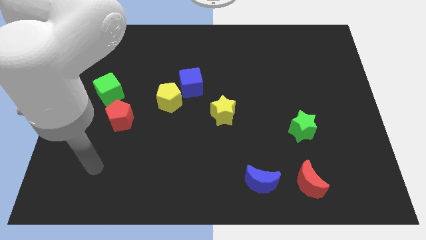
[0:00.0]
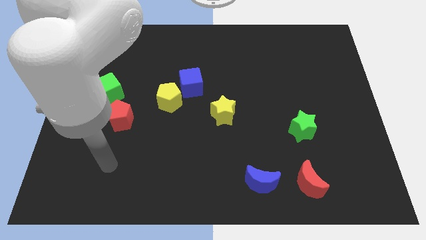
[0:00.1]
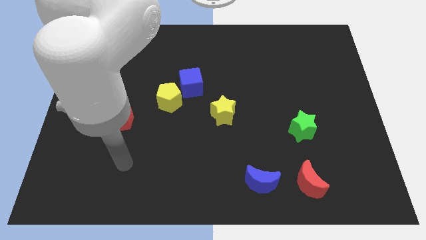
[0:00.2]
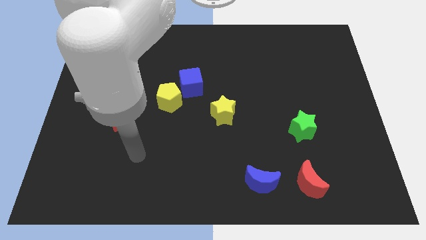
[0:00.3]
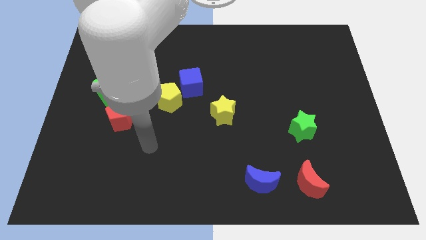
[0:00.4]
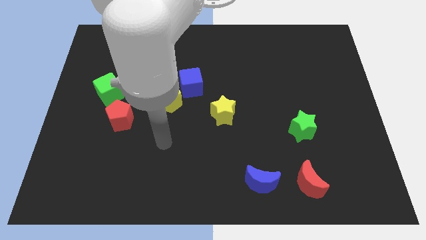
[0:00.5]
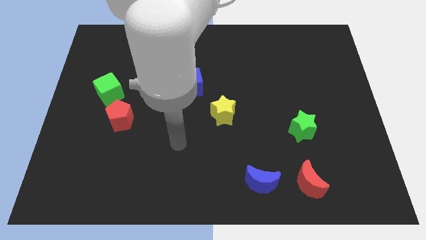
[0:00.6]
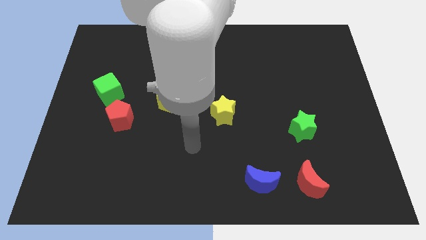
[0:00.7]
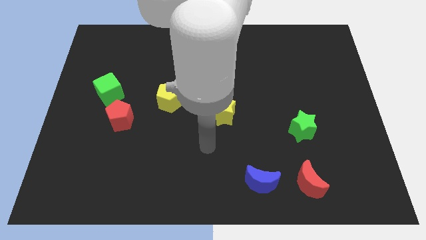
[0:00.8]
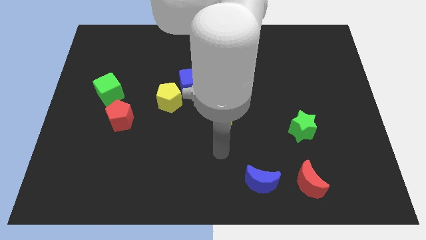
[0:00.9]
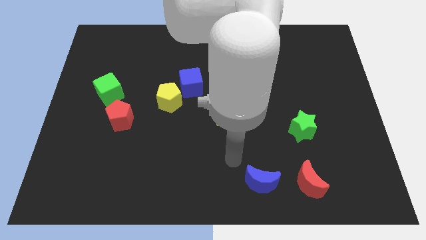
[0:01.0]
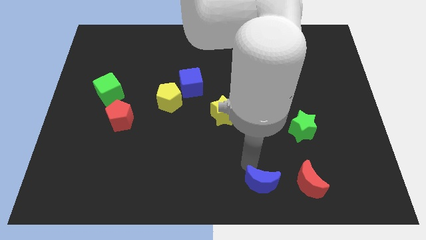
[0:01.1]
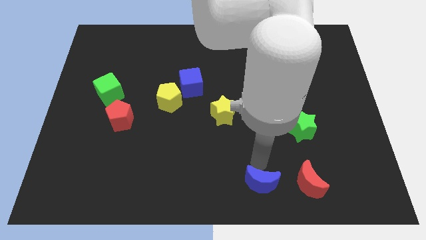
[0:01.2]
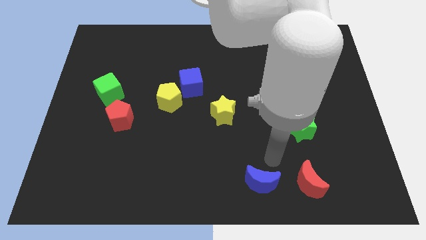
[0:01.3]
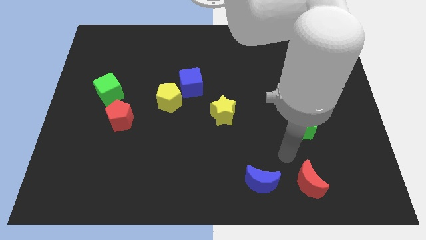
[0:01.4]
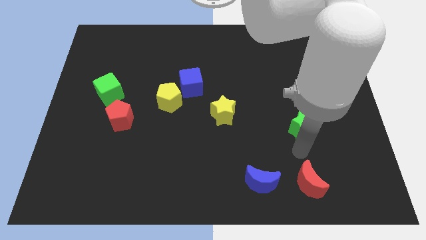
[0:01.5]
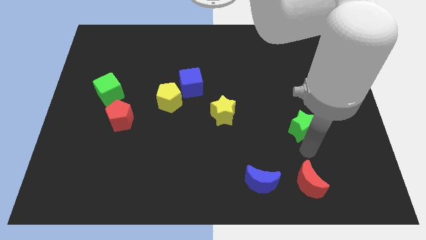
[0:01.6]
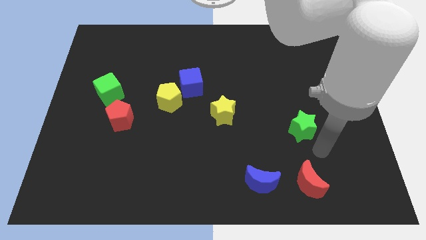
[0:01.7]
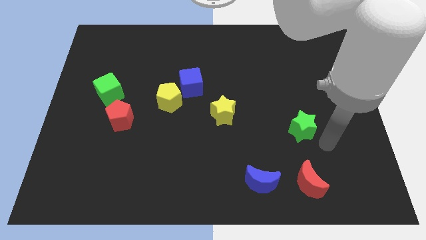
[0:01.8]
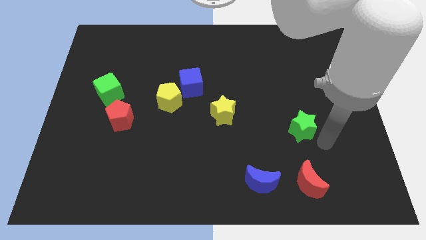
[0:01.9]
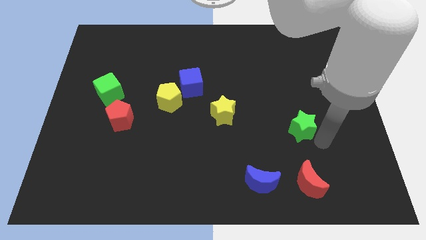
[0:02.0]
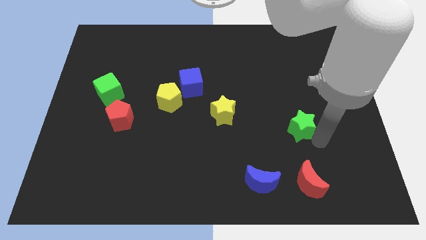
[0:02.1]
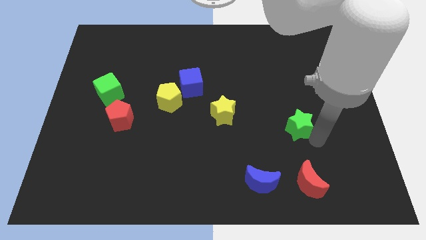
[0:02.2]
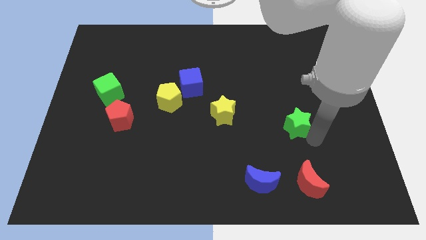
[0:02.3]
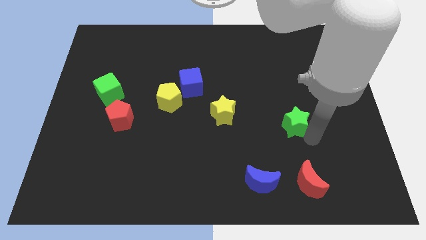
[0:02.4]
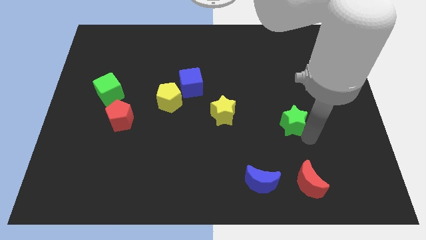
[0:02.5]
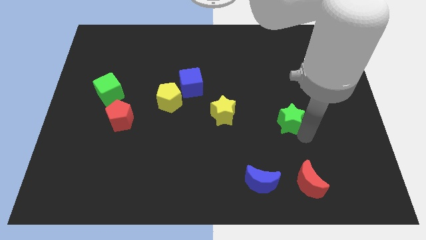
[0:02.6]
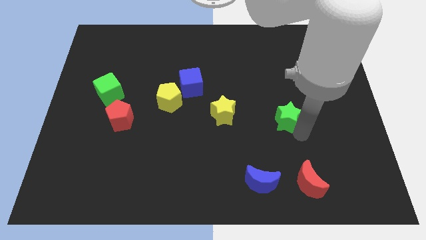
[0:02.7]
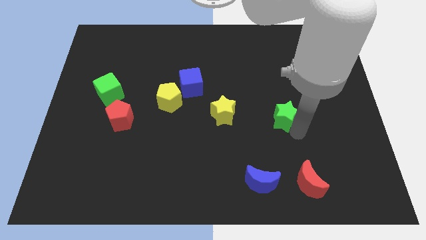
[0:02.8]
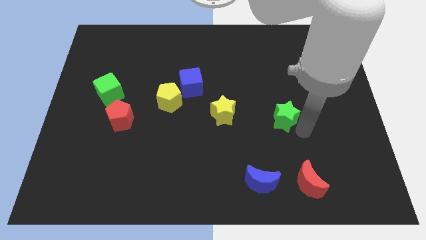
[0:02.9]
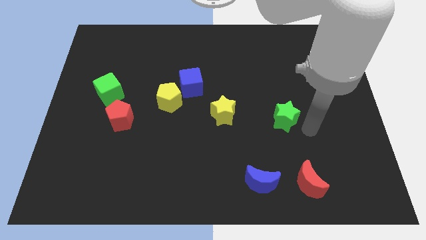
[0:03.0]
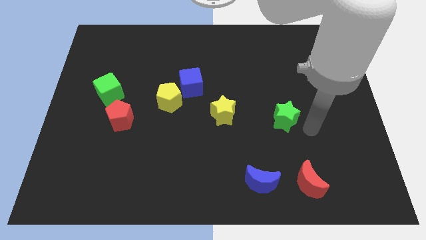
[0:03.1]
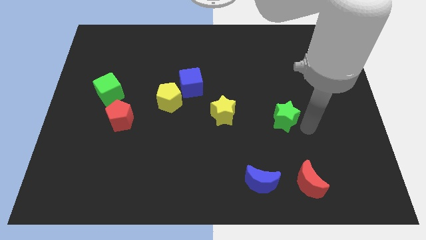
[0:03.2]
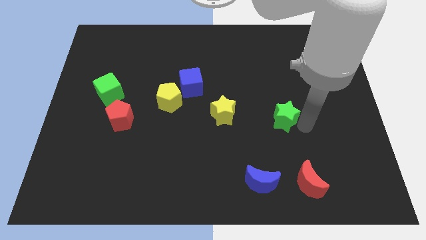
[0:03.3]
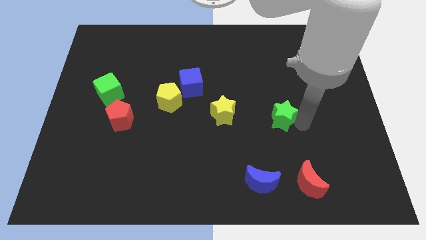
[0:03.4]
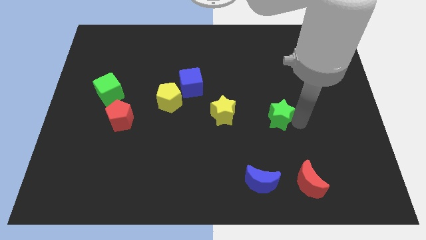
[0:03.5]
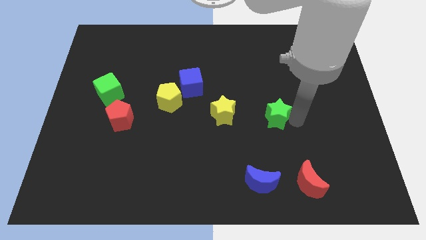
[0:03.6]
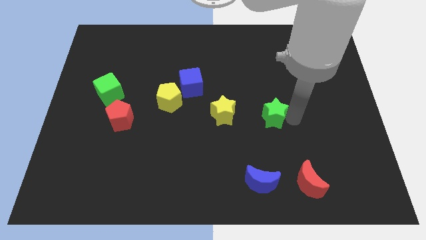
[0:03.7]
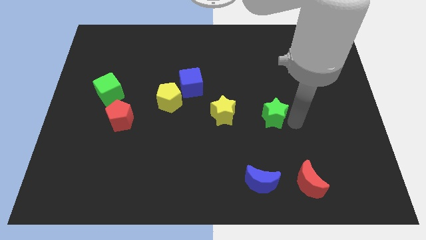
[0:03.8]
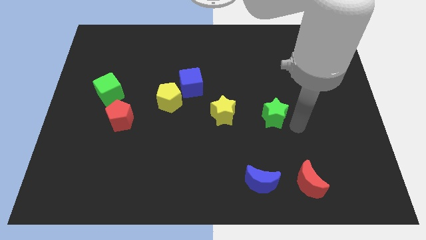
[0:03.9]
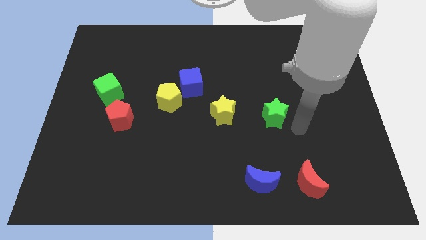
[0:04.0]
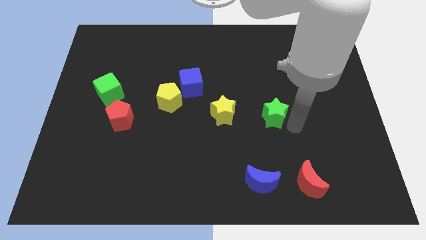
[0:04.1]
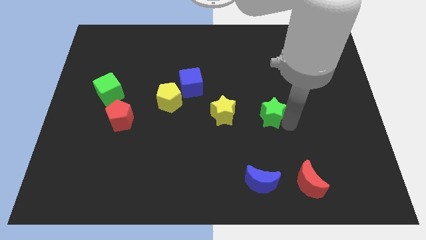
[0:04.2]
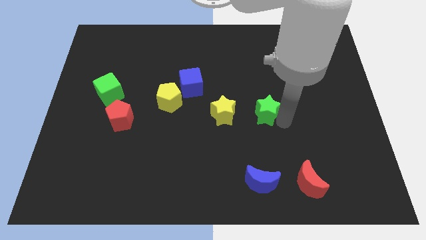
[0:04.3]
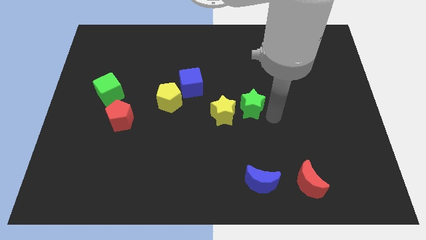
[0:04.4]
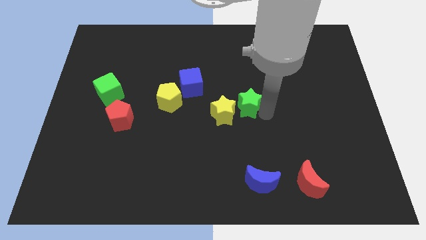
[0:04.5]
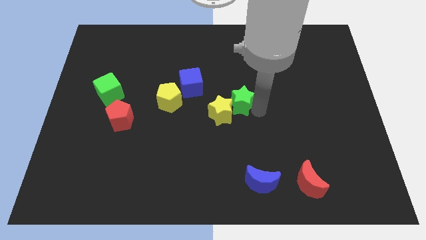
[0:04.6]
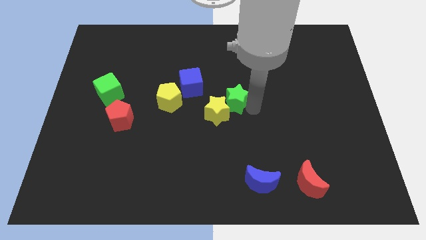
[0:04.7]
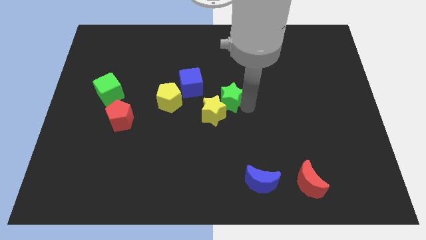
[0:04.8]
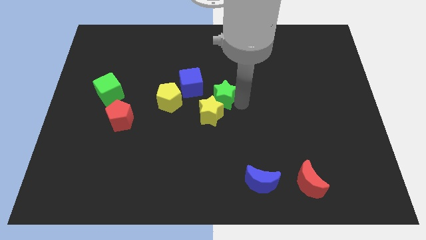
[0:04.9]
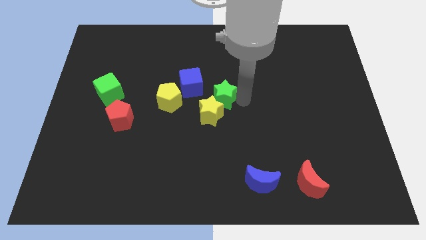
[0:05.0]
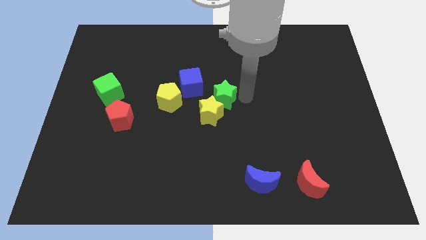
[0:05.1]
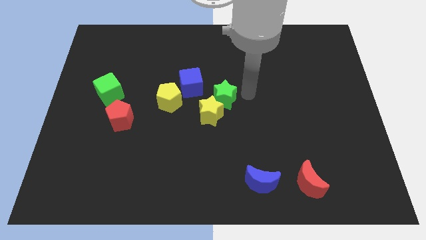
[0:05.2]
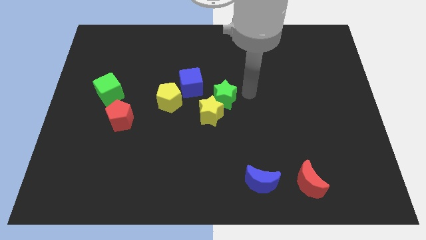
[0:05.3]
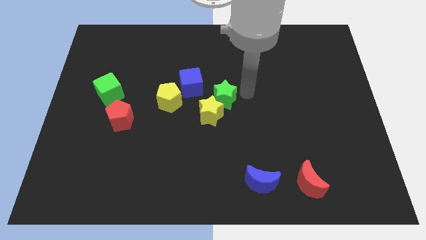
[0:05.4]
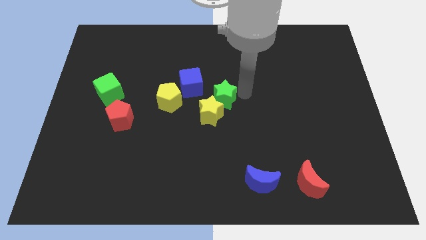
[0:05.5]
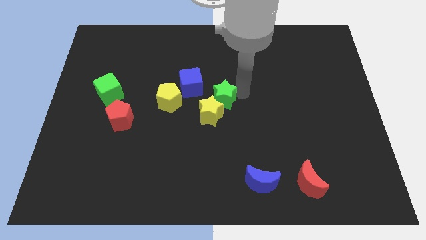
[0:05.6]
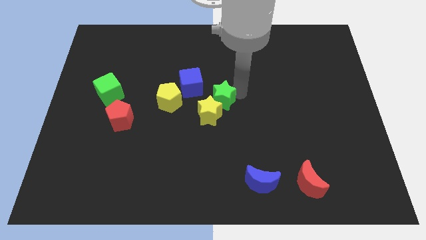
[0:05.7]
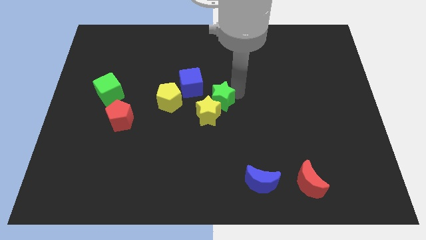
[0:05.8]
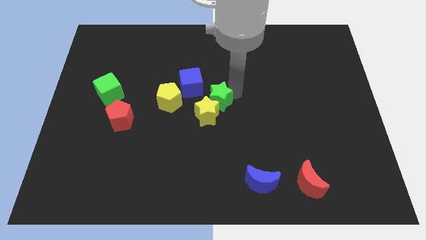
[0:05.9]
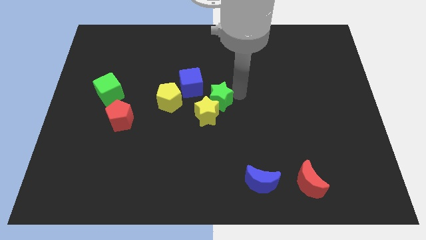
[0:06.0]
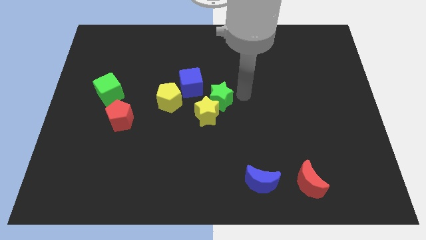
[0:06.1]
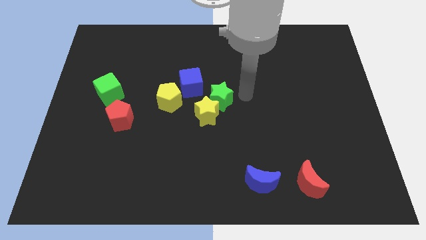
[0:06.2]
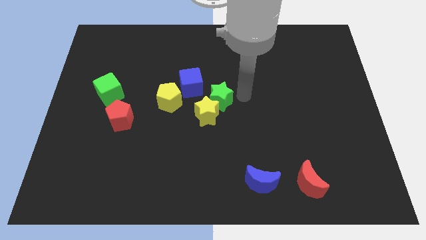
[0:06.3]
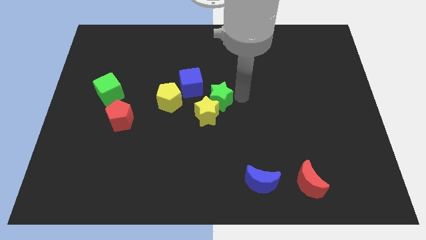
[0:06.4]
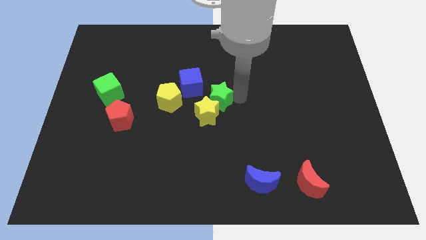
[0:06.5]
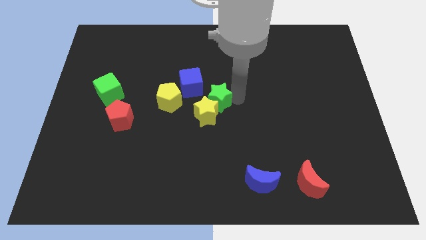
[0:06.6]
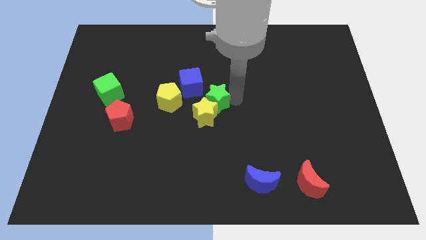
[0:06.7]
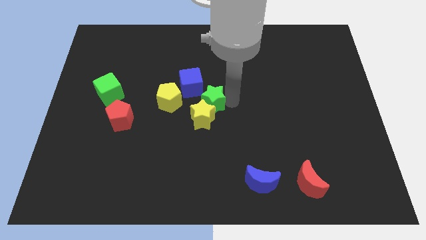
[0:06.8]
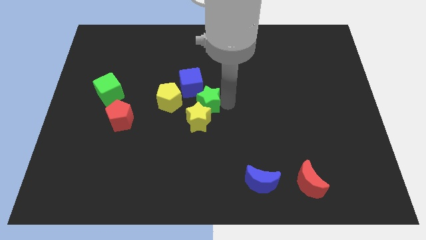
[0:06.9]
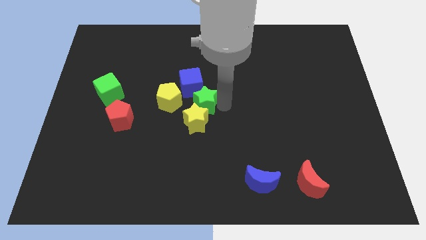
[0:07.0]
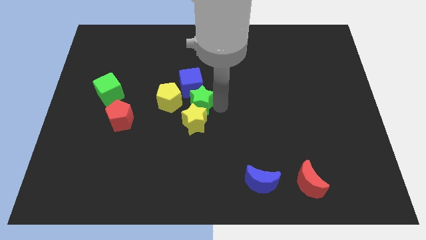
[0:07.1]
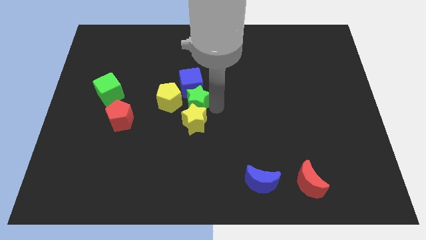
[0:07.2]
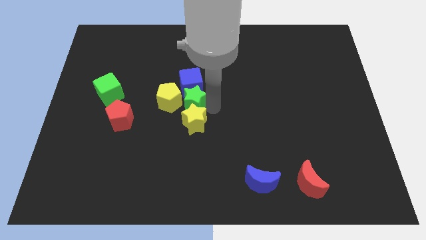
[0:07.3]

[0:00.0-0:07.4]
put the green star to the yellow pentagon
